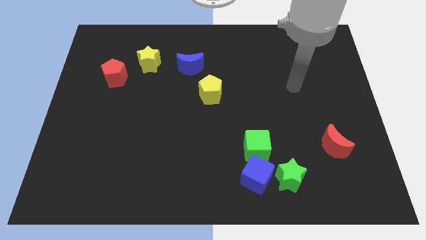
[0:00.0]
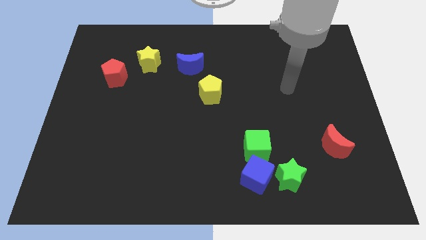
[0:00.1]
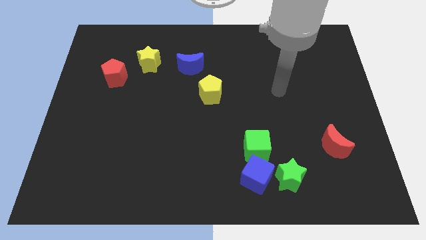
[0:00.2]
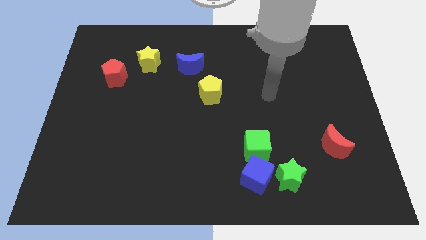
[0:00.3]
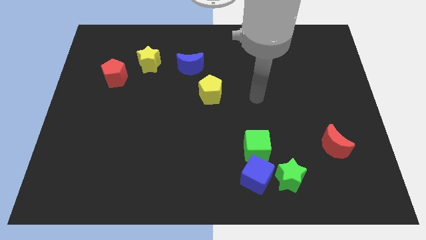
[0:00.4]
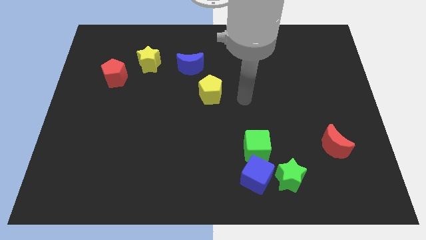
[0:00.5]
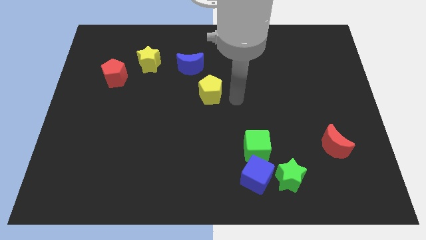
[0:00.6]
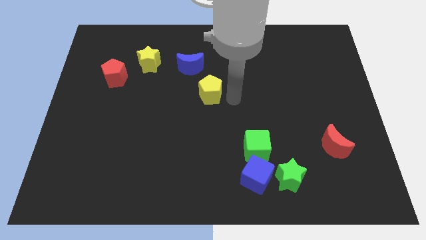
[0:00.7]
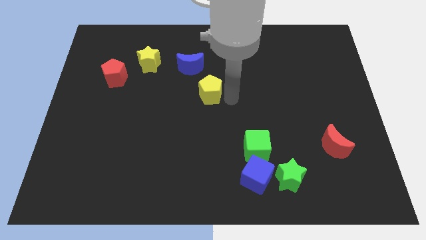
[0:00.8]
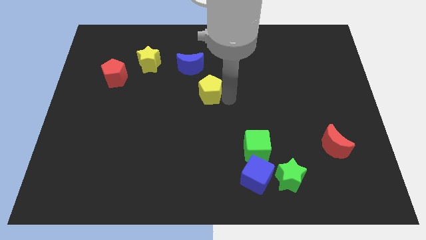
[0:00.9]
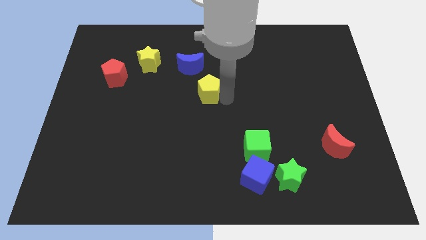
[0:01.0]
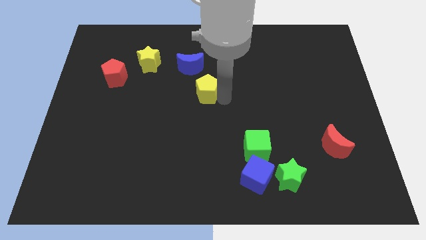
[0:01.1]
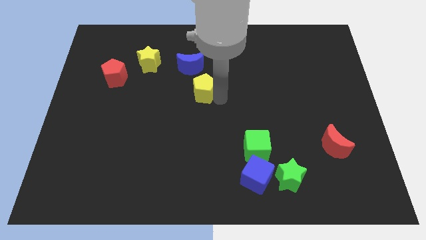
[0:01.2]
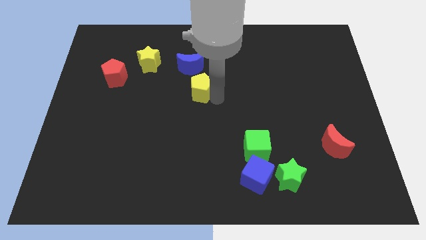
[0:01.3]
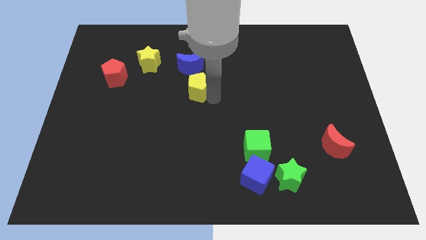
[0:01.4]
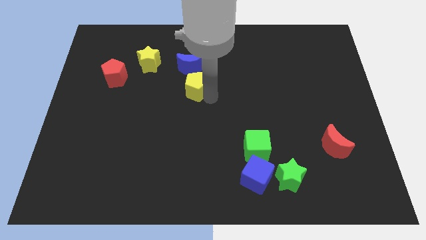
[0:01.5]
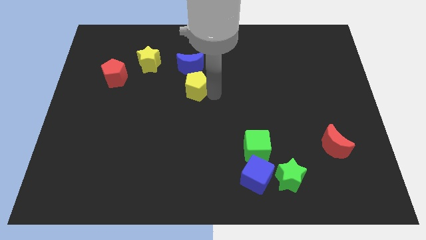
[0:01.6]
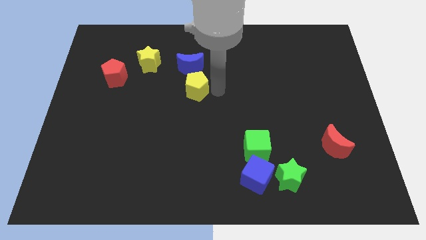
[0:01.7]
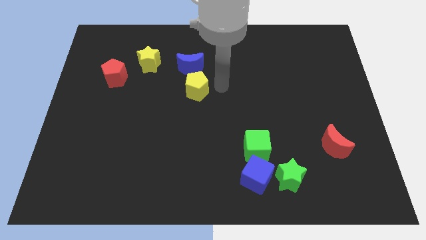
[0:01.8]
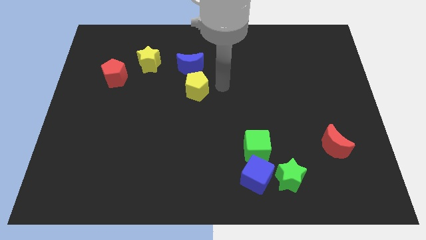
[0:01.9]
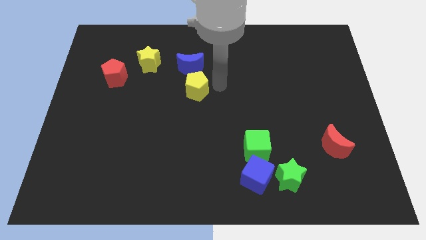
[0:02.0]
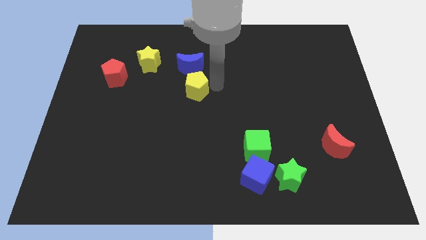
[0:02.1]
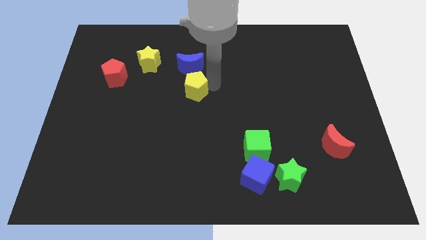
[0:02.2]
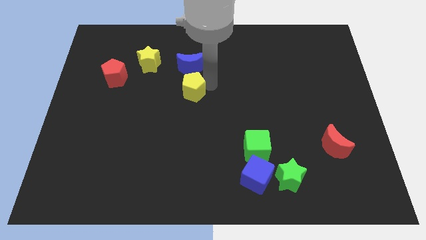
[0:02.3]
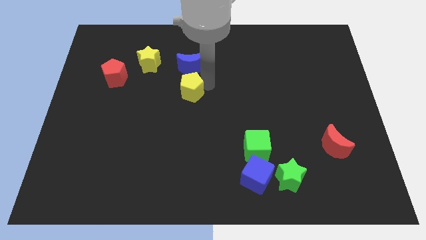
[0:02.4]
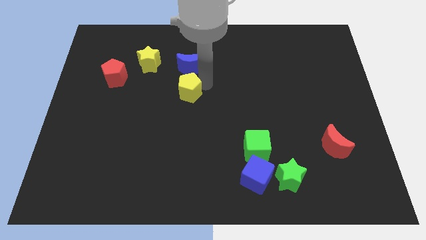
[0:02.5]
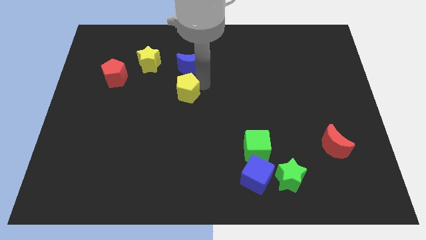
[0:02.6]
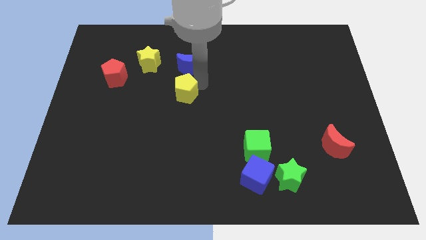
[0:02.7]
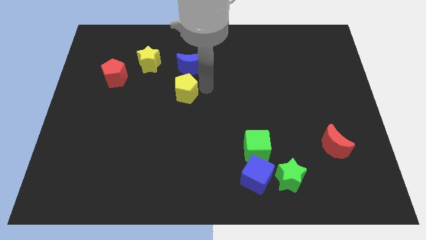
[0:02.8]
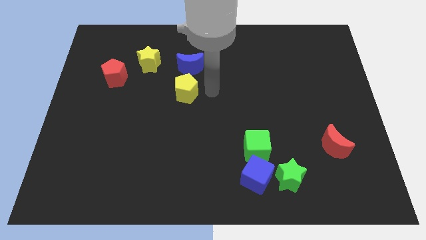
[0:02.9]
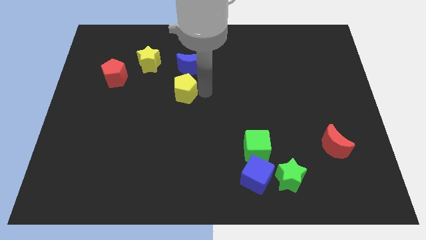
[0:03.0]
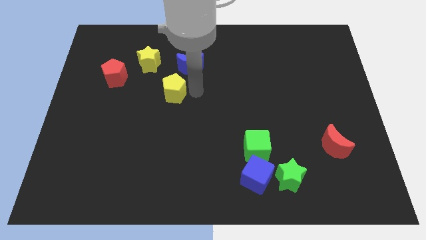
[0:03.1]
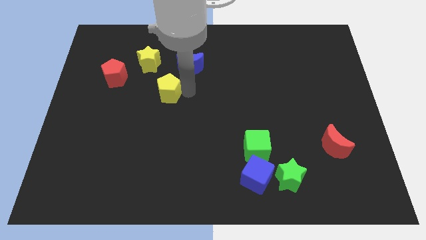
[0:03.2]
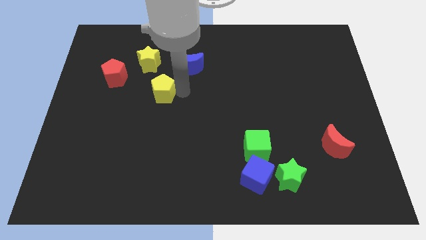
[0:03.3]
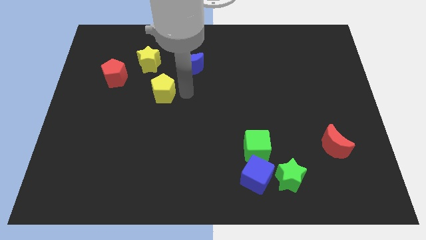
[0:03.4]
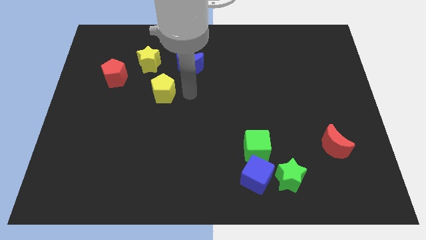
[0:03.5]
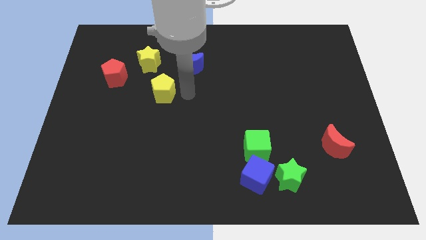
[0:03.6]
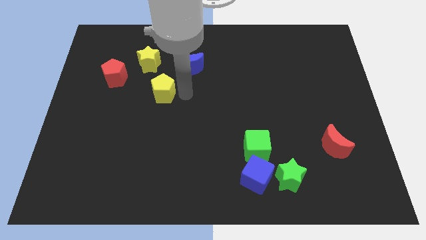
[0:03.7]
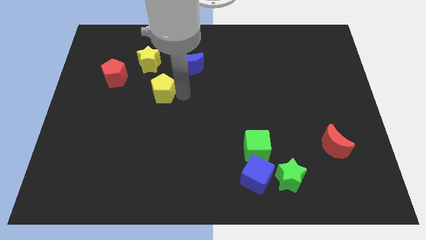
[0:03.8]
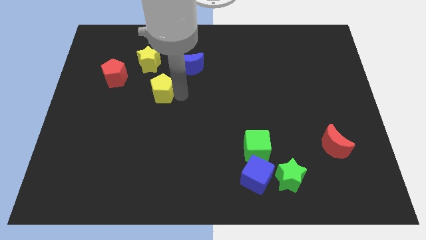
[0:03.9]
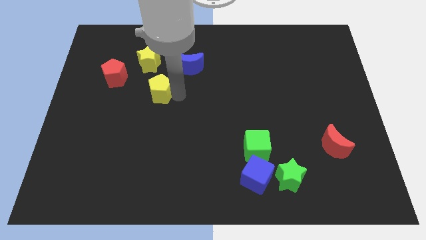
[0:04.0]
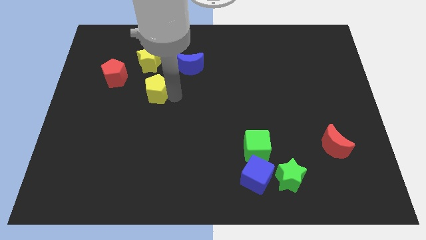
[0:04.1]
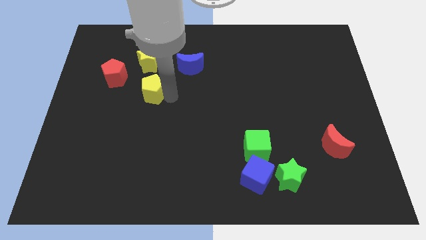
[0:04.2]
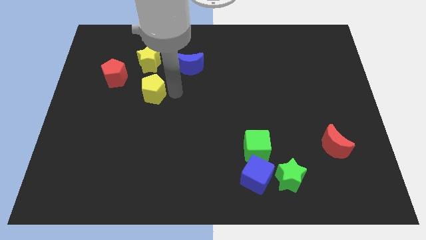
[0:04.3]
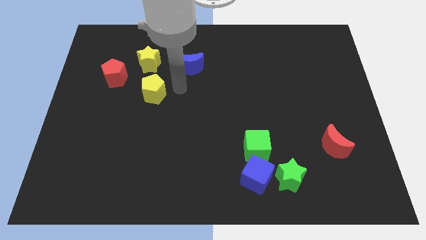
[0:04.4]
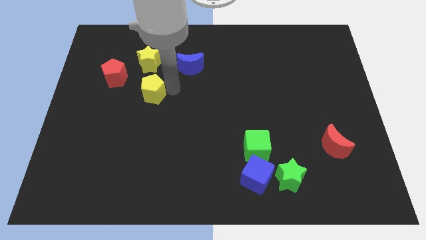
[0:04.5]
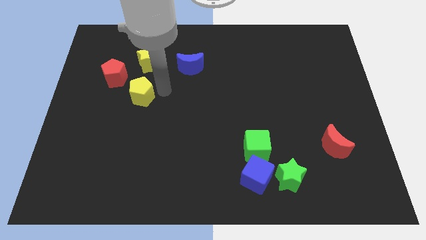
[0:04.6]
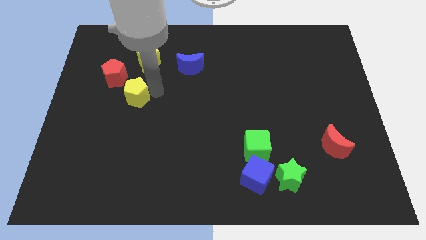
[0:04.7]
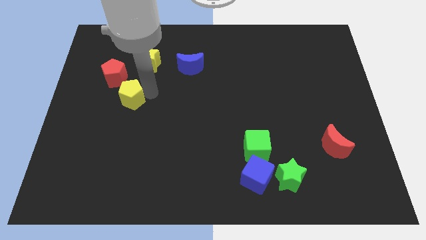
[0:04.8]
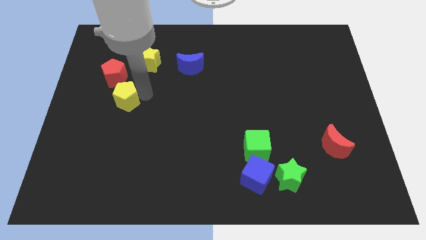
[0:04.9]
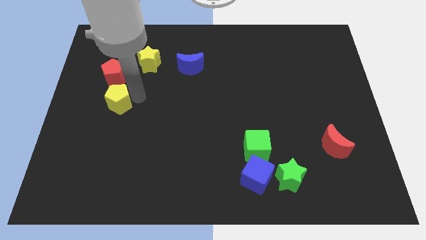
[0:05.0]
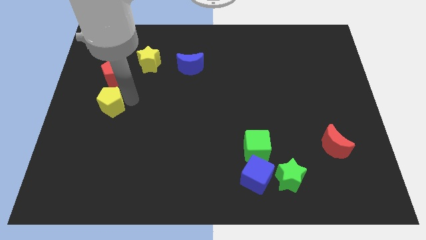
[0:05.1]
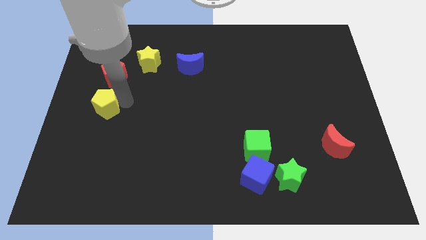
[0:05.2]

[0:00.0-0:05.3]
slide the yellow pentagon to the center left

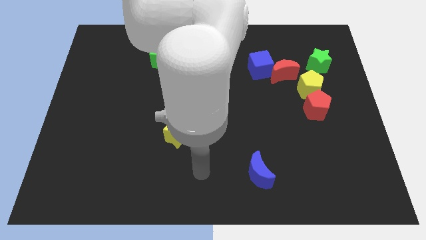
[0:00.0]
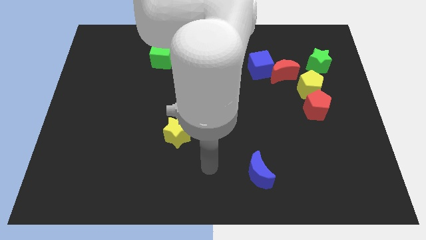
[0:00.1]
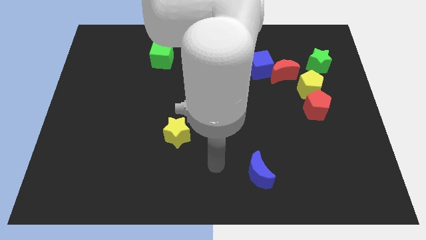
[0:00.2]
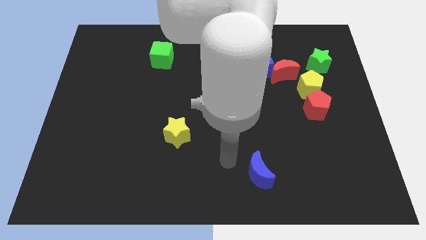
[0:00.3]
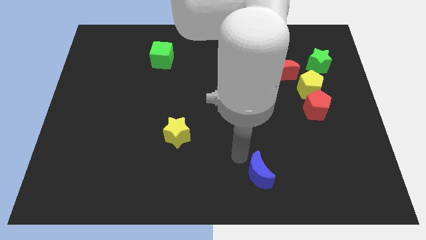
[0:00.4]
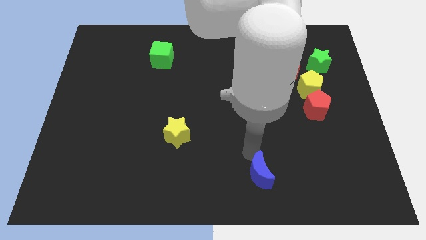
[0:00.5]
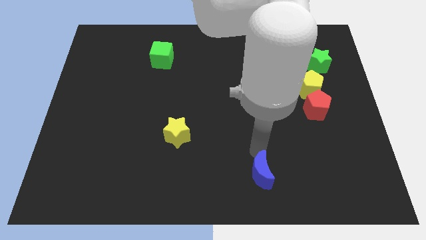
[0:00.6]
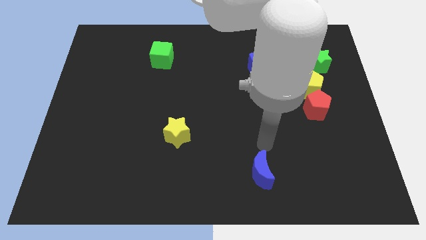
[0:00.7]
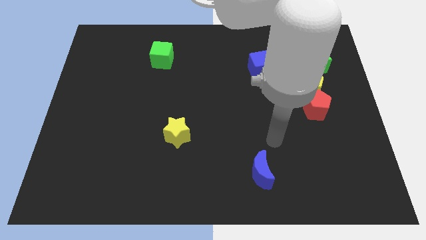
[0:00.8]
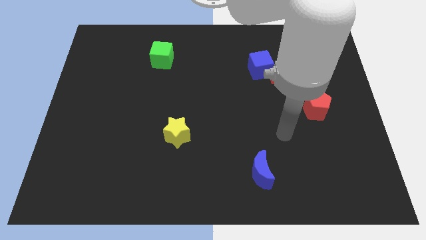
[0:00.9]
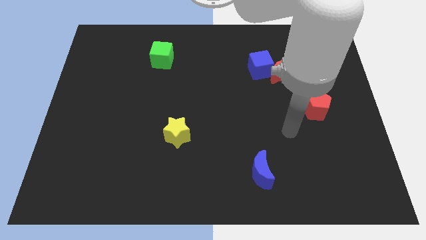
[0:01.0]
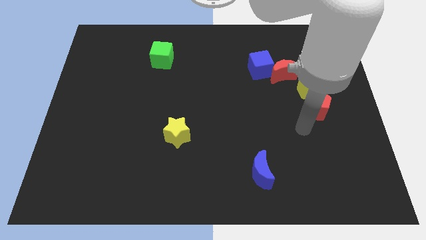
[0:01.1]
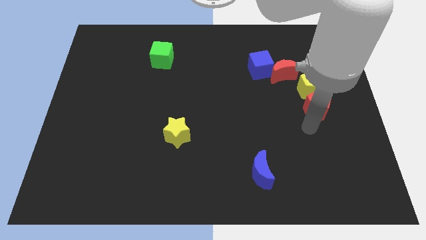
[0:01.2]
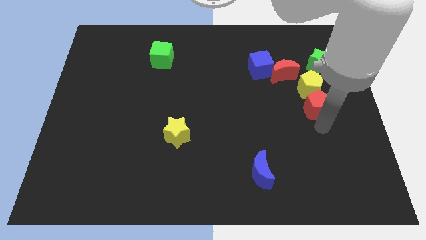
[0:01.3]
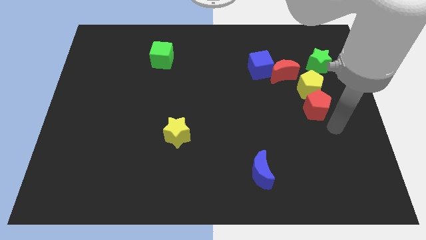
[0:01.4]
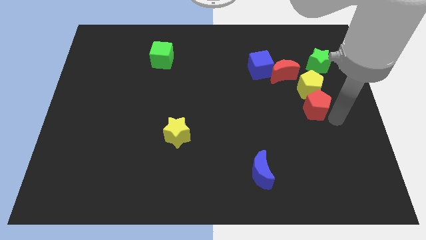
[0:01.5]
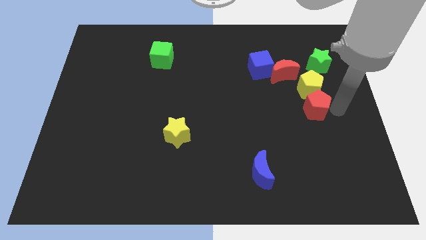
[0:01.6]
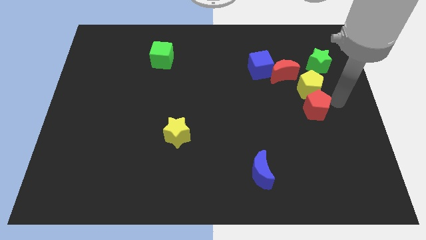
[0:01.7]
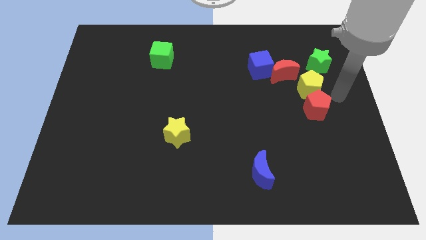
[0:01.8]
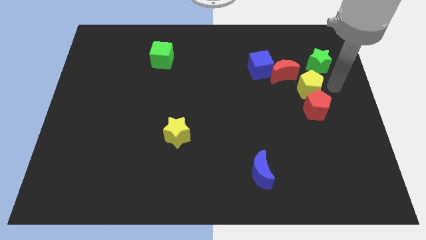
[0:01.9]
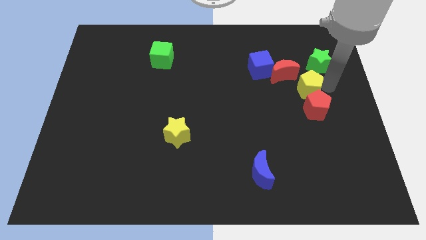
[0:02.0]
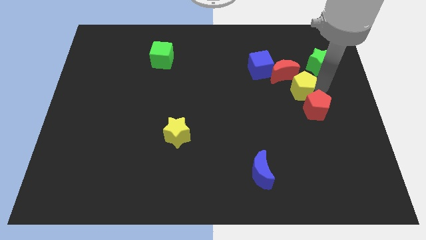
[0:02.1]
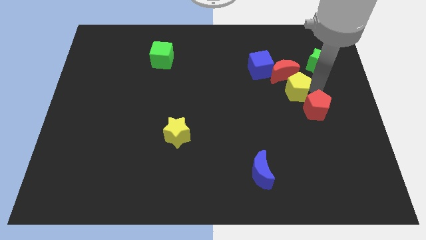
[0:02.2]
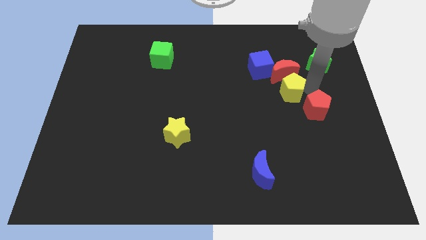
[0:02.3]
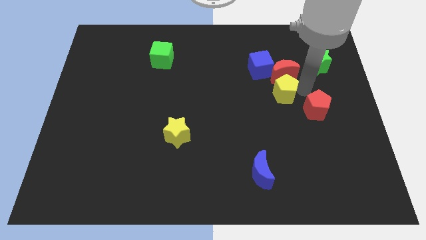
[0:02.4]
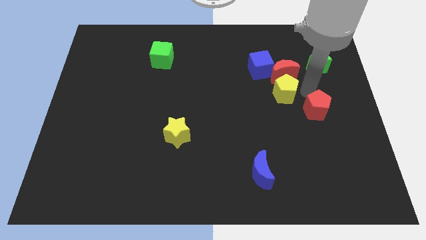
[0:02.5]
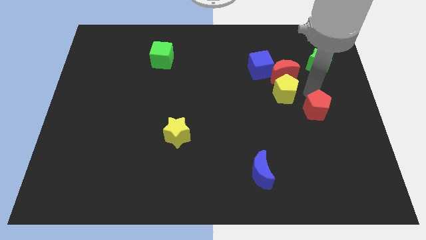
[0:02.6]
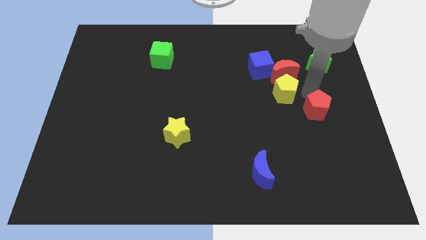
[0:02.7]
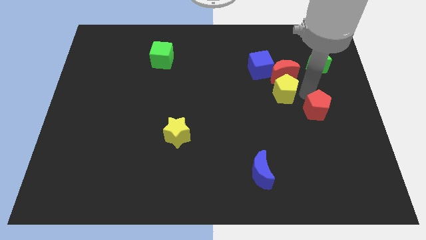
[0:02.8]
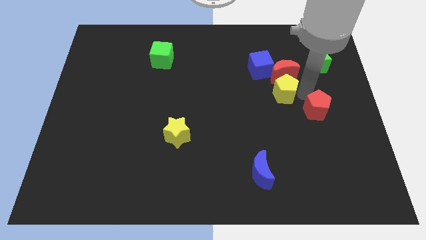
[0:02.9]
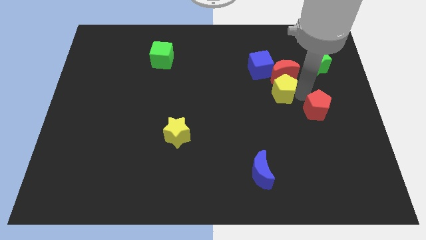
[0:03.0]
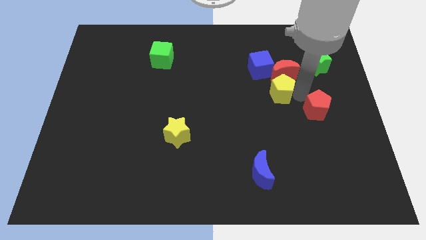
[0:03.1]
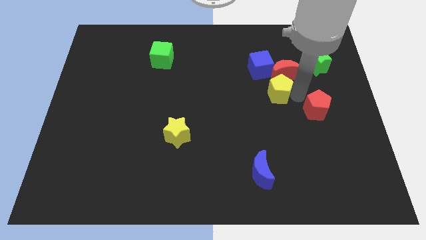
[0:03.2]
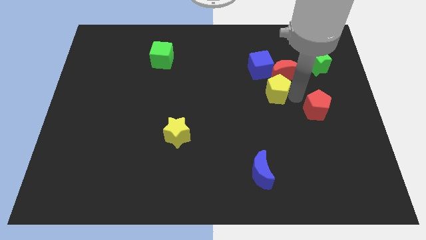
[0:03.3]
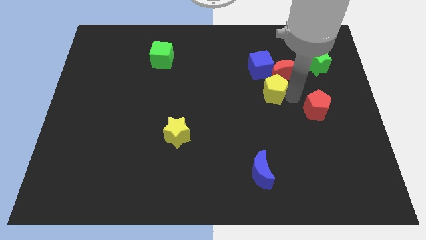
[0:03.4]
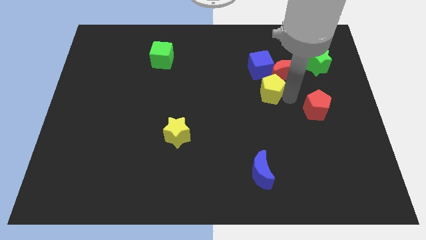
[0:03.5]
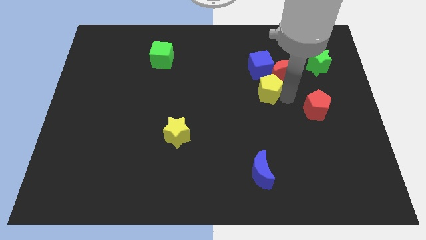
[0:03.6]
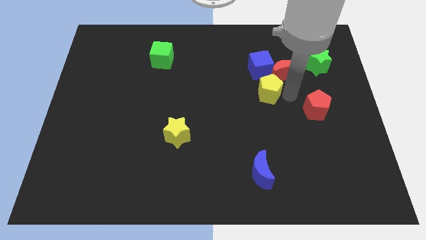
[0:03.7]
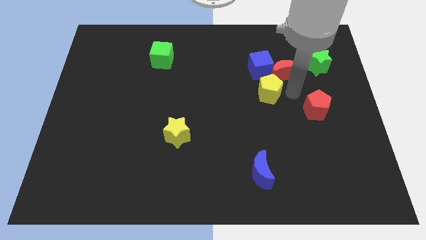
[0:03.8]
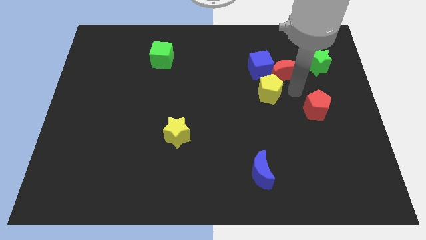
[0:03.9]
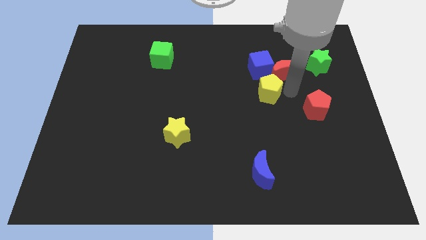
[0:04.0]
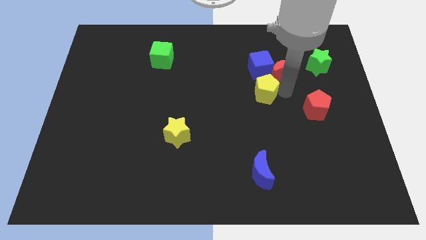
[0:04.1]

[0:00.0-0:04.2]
put the yellow pentagon to the middle
